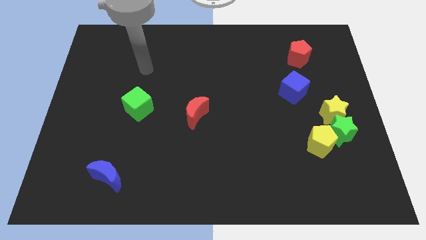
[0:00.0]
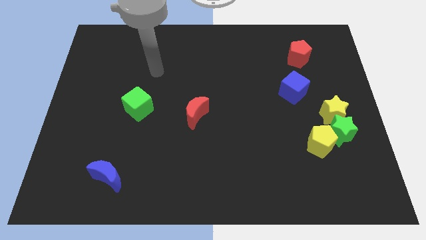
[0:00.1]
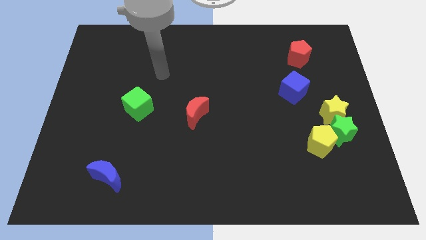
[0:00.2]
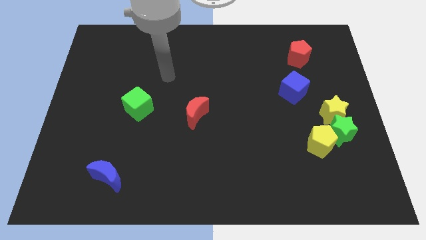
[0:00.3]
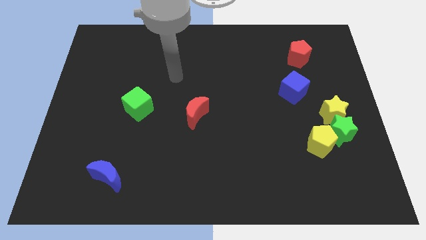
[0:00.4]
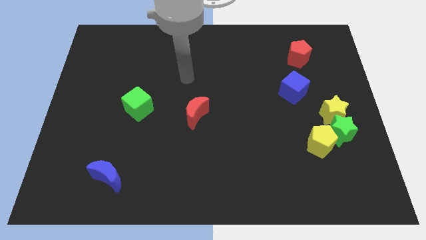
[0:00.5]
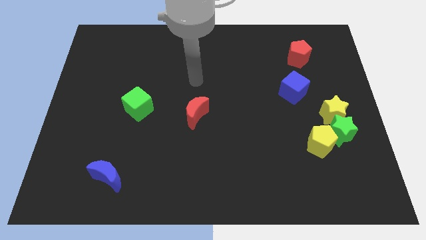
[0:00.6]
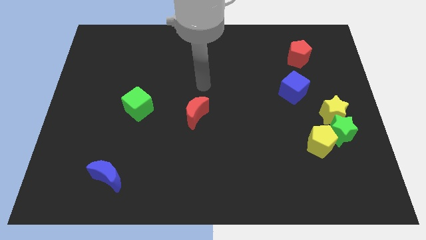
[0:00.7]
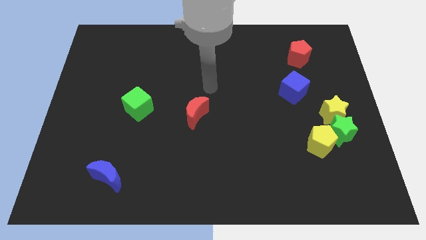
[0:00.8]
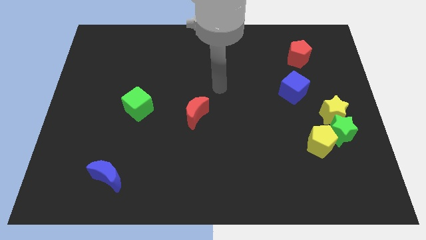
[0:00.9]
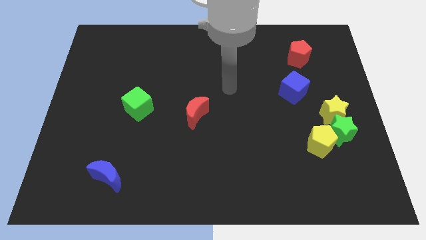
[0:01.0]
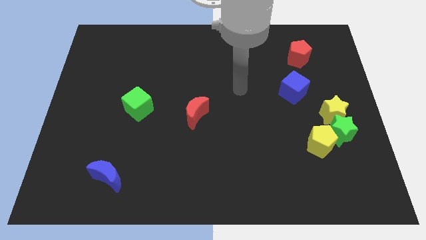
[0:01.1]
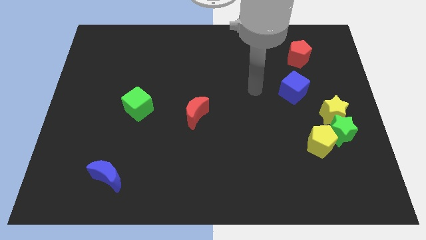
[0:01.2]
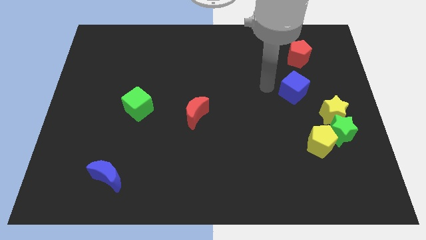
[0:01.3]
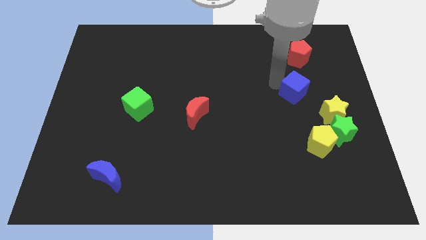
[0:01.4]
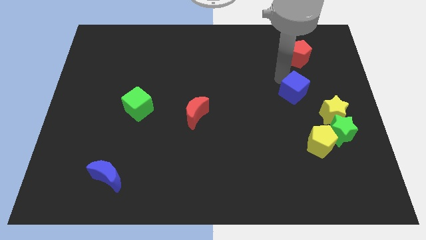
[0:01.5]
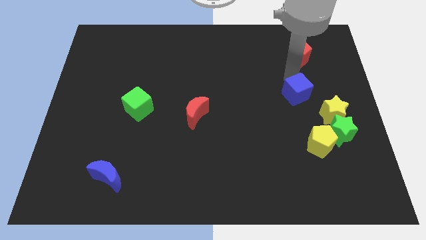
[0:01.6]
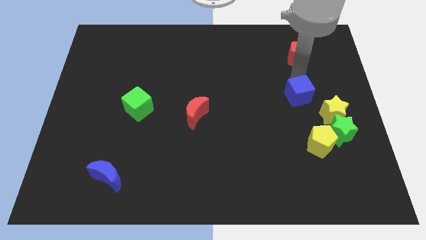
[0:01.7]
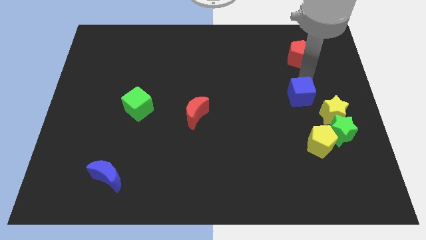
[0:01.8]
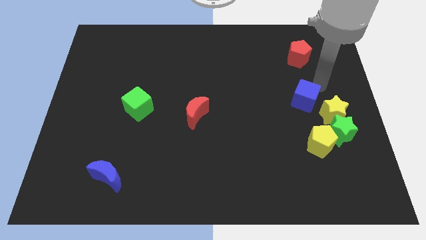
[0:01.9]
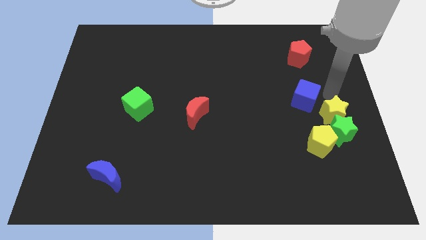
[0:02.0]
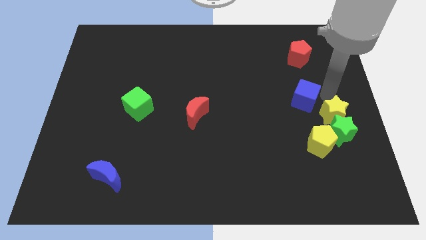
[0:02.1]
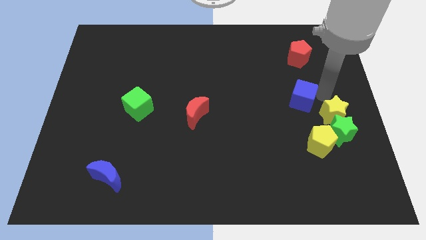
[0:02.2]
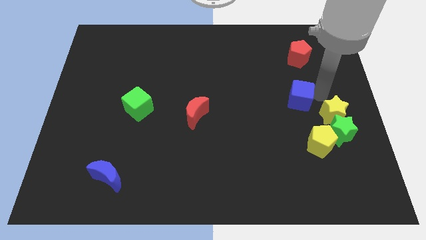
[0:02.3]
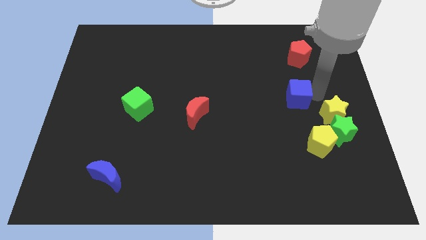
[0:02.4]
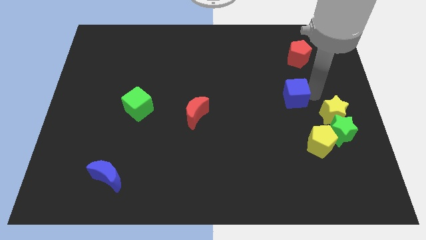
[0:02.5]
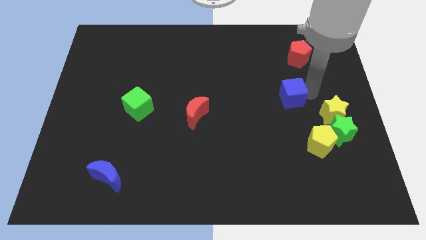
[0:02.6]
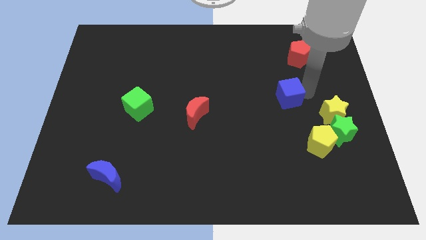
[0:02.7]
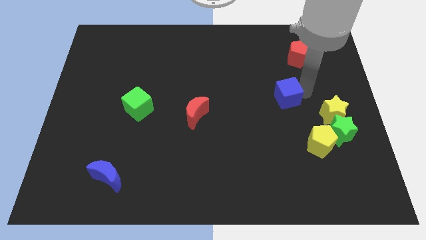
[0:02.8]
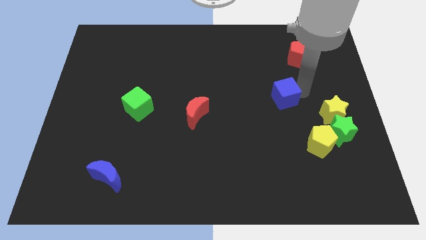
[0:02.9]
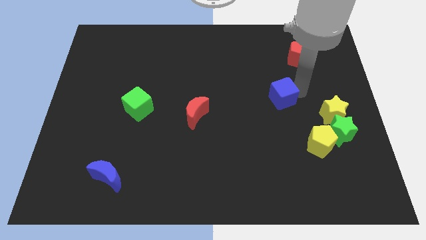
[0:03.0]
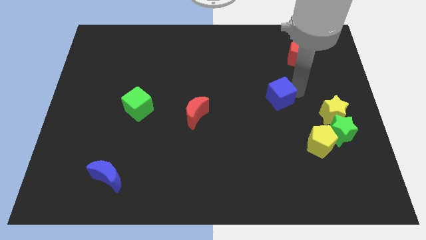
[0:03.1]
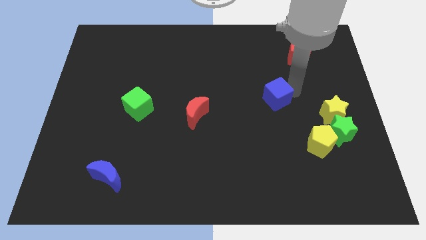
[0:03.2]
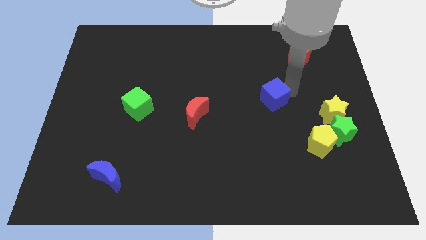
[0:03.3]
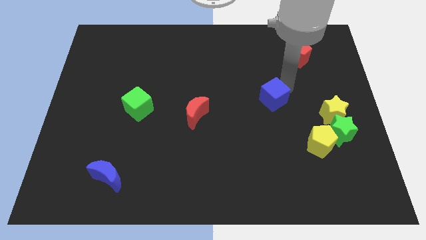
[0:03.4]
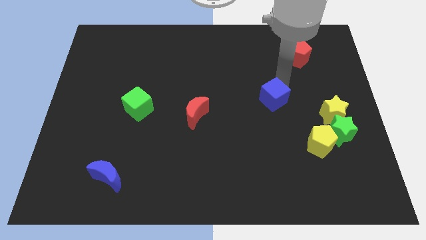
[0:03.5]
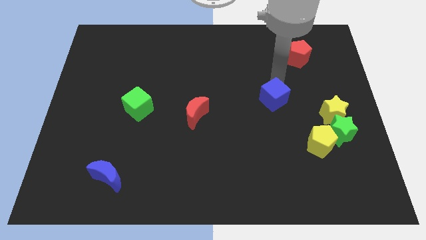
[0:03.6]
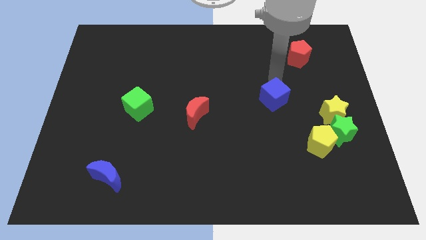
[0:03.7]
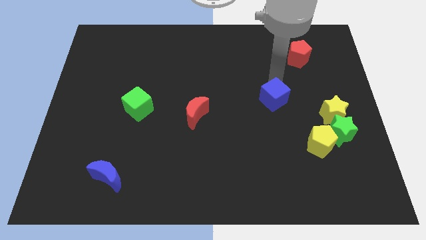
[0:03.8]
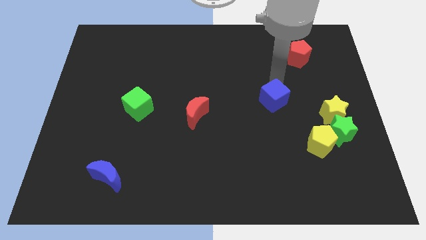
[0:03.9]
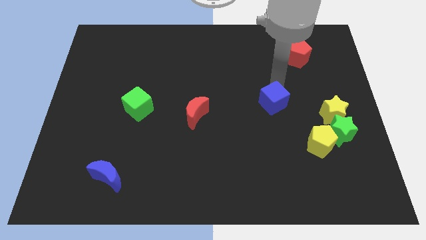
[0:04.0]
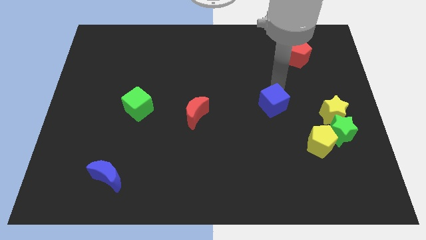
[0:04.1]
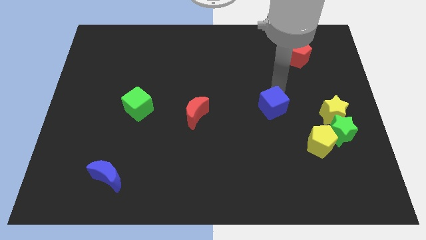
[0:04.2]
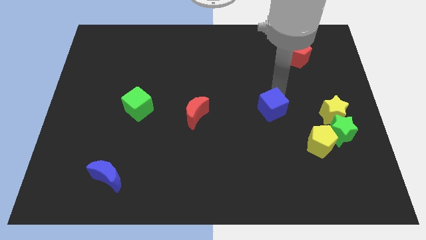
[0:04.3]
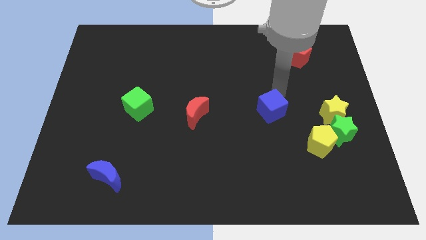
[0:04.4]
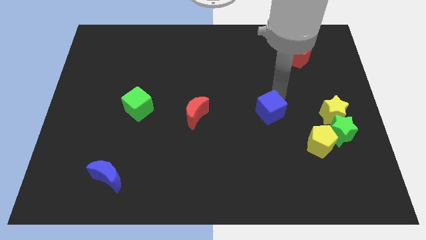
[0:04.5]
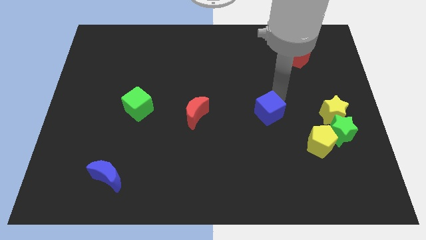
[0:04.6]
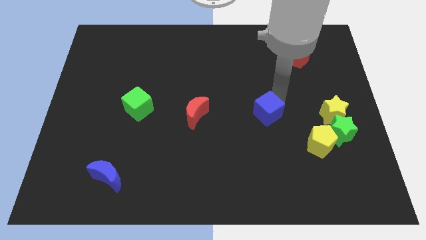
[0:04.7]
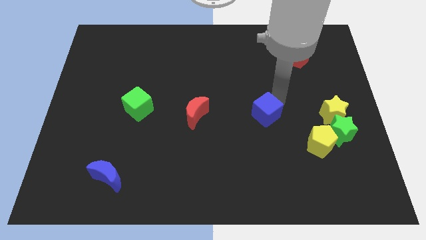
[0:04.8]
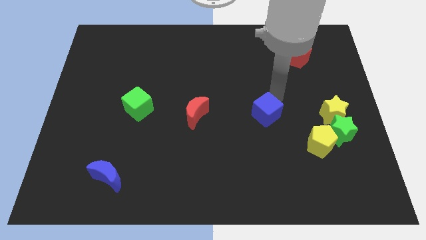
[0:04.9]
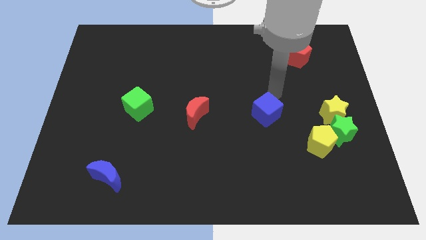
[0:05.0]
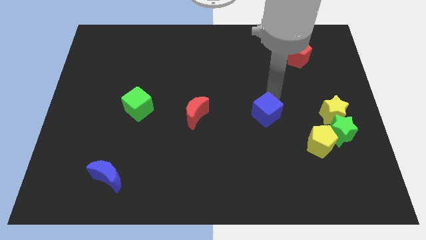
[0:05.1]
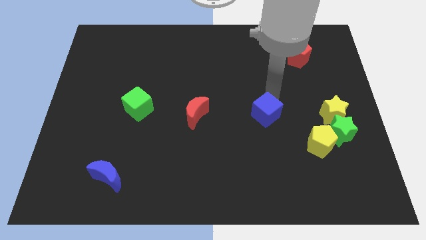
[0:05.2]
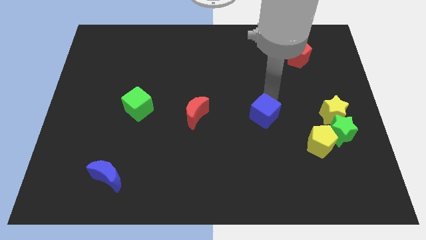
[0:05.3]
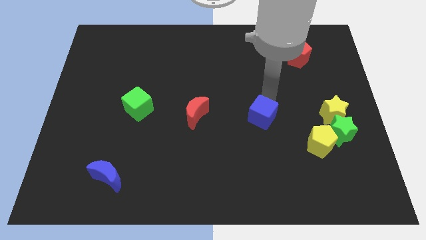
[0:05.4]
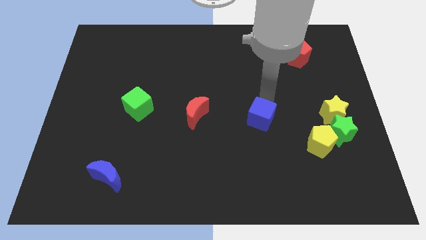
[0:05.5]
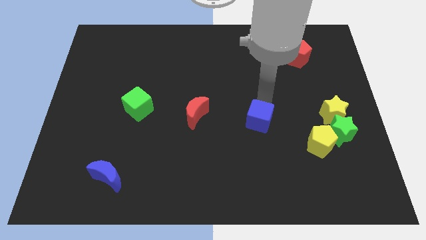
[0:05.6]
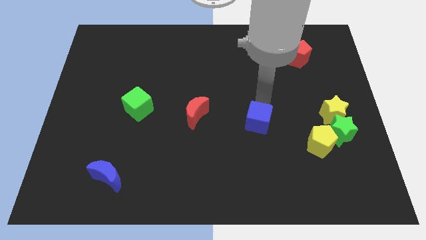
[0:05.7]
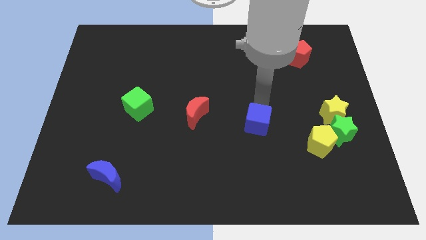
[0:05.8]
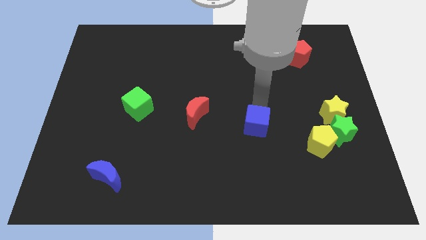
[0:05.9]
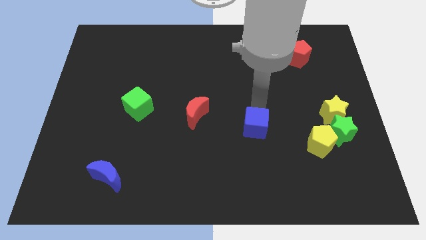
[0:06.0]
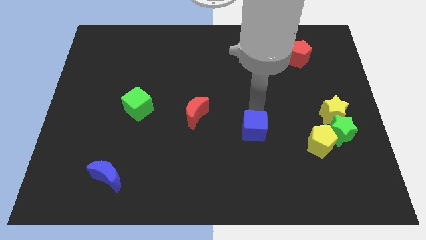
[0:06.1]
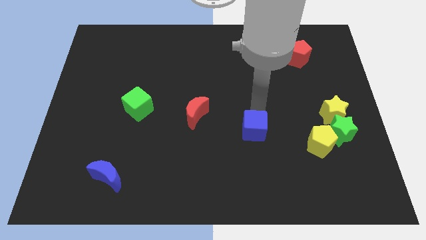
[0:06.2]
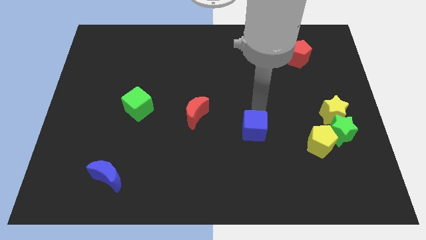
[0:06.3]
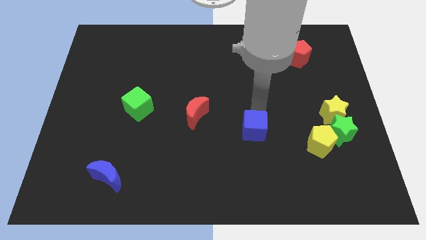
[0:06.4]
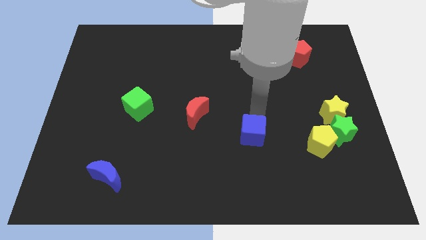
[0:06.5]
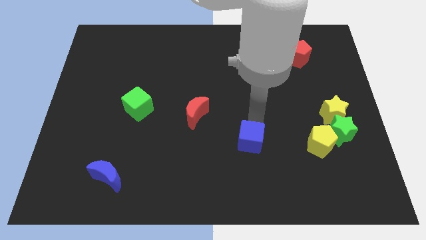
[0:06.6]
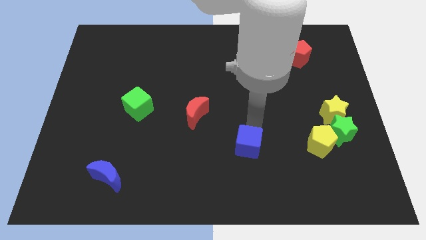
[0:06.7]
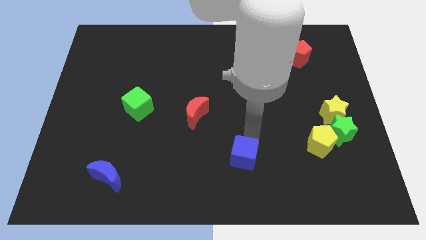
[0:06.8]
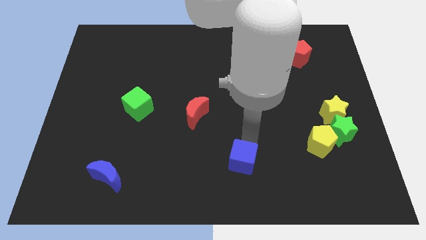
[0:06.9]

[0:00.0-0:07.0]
slide the blue cube to the bottom
